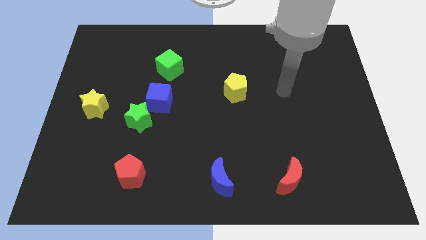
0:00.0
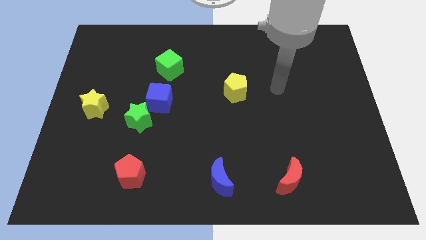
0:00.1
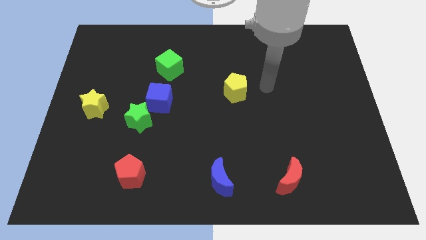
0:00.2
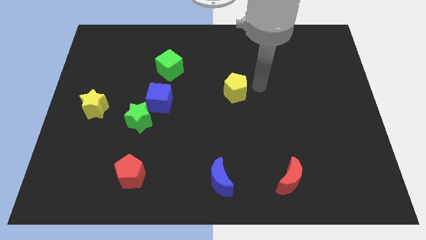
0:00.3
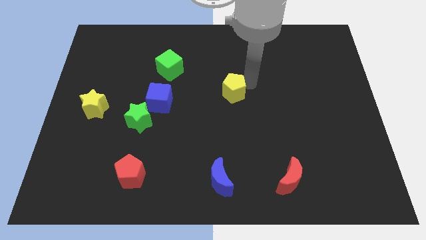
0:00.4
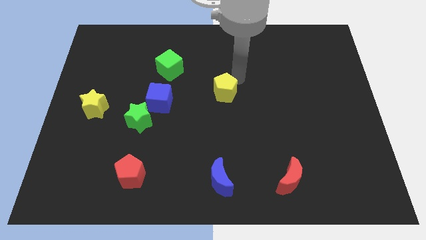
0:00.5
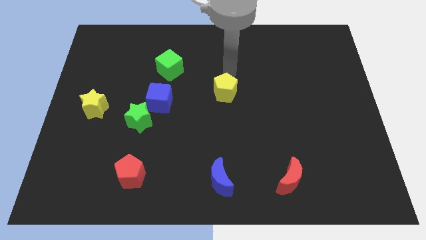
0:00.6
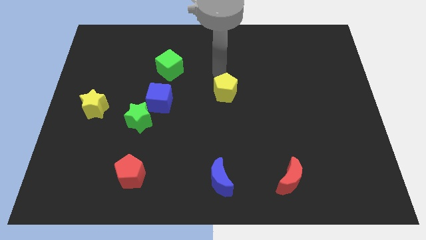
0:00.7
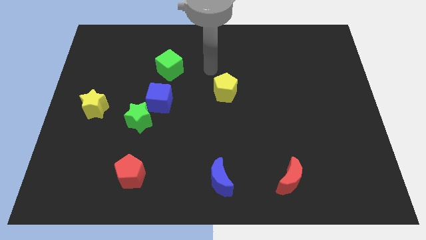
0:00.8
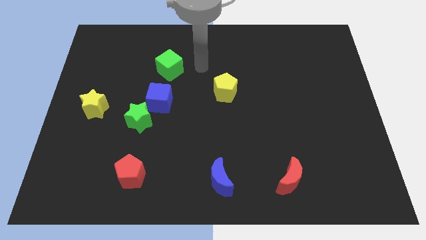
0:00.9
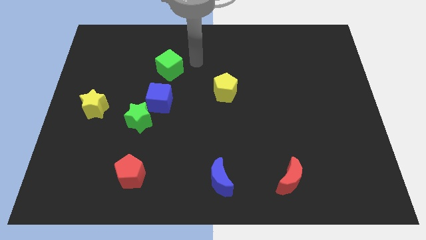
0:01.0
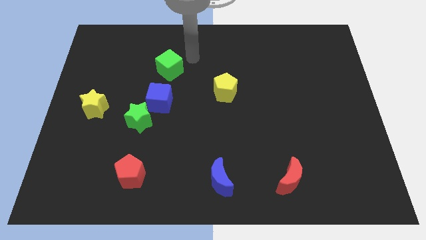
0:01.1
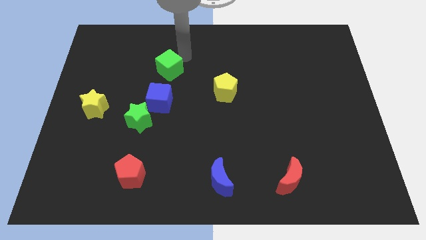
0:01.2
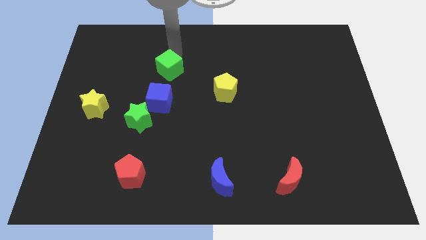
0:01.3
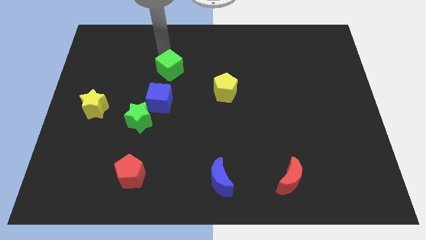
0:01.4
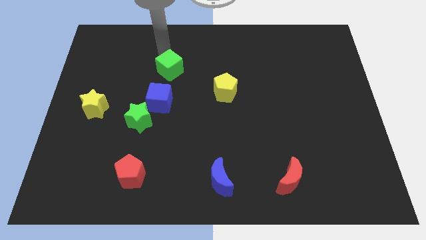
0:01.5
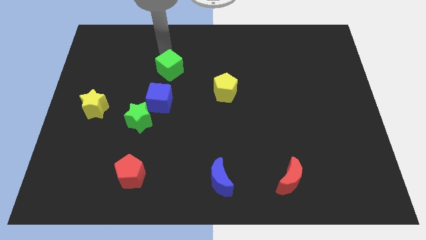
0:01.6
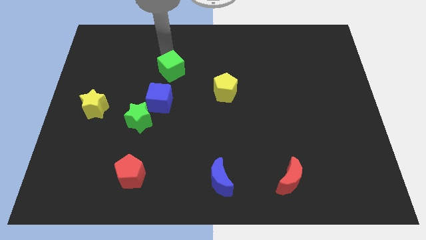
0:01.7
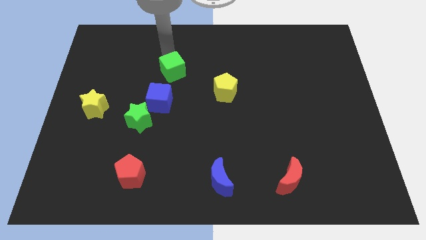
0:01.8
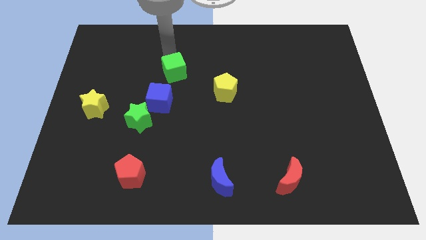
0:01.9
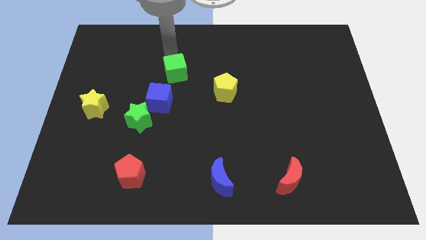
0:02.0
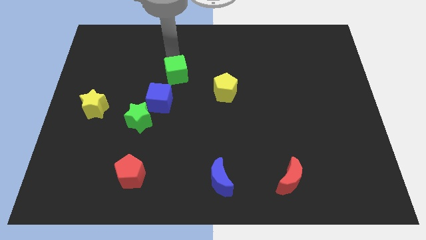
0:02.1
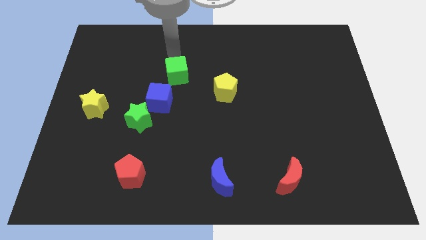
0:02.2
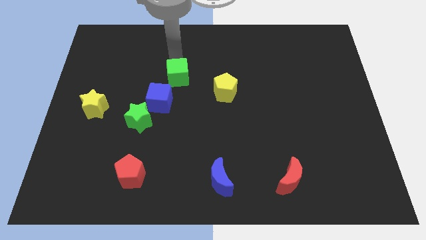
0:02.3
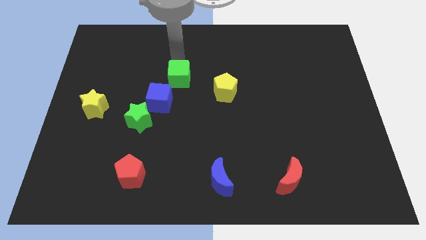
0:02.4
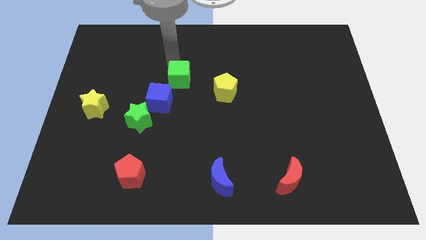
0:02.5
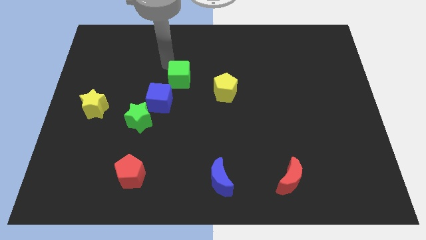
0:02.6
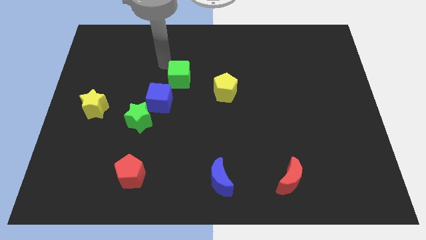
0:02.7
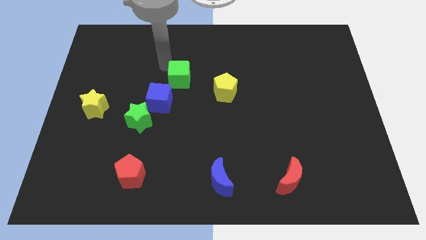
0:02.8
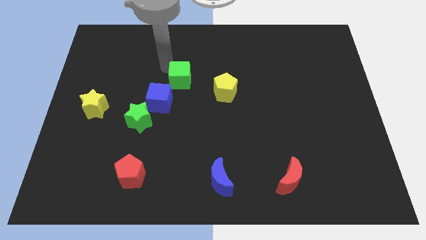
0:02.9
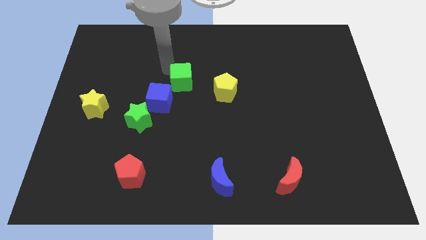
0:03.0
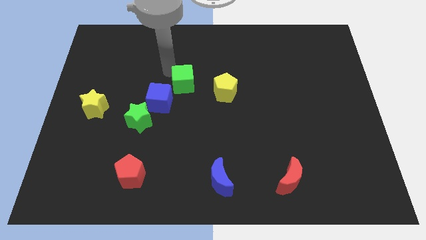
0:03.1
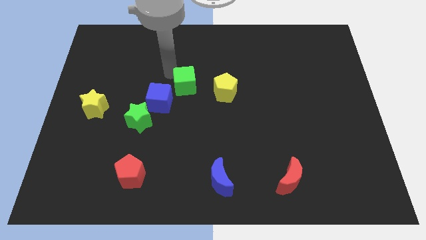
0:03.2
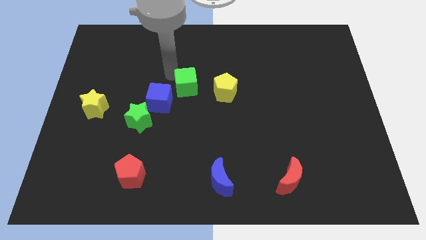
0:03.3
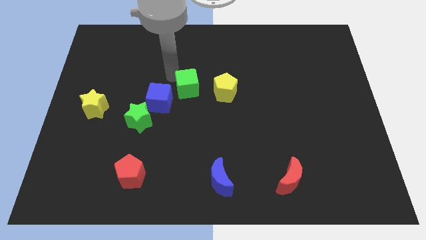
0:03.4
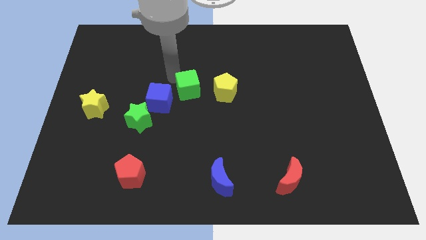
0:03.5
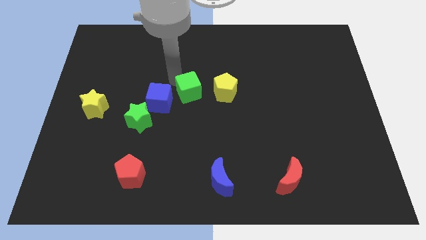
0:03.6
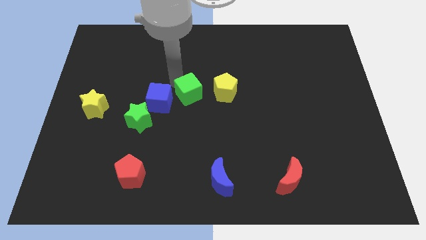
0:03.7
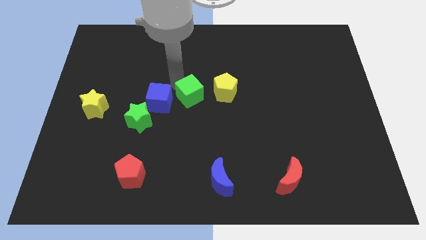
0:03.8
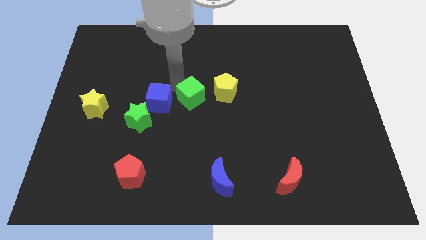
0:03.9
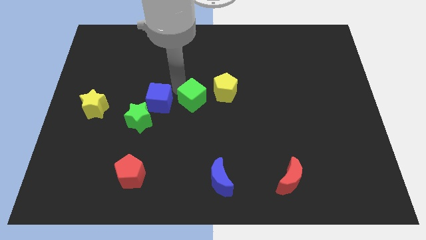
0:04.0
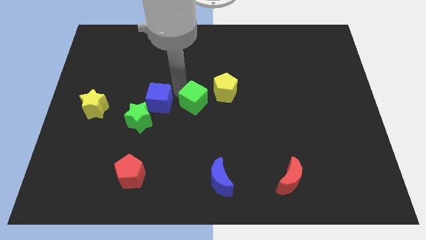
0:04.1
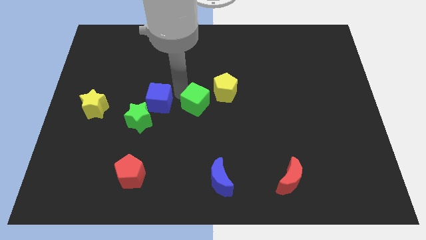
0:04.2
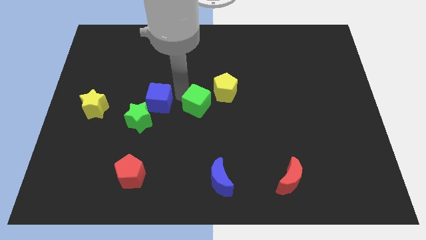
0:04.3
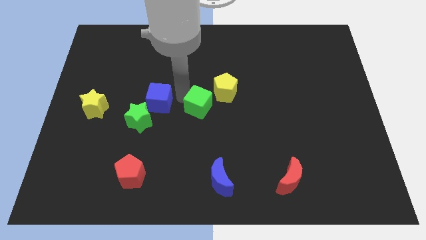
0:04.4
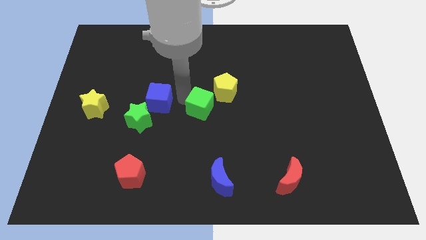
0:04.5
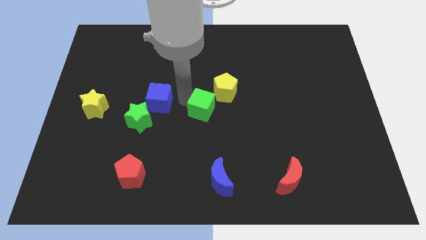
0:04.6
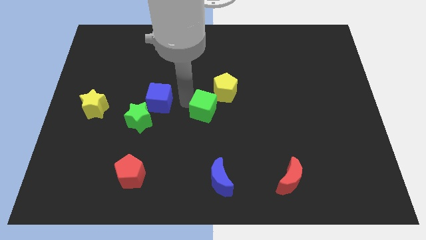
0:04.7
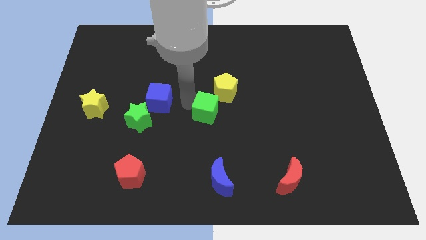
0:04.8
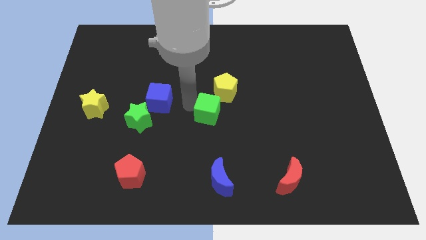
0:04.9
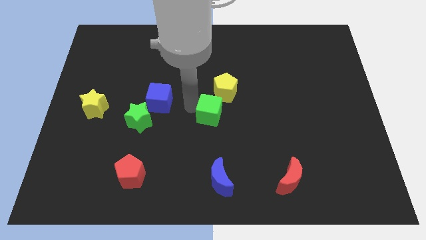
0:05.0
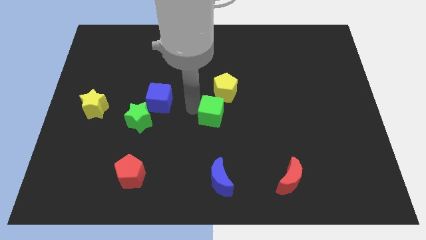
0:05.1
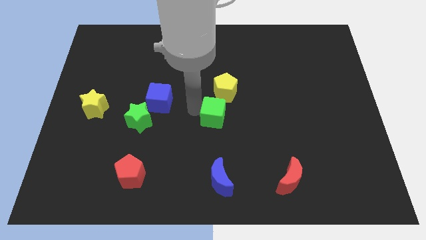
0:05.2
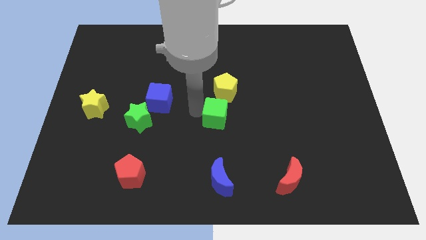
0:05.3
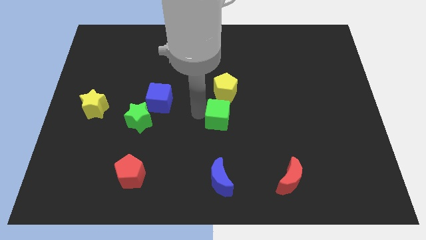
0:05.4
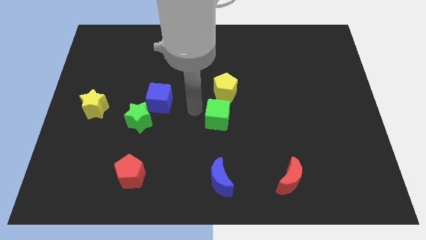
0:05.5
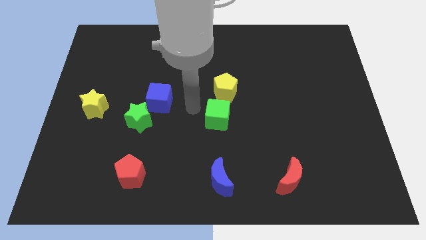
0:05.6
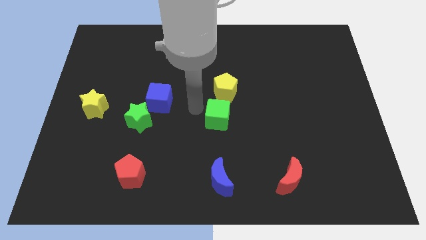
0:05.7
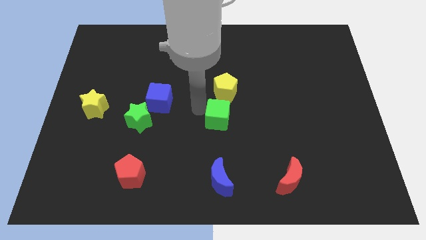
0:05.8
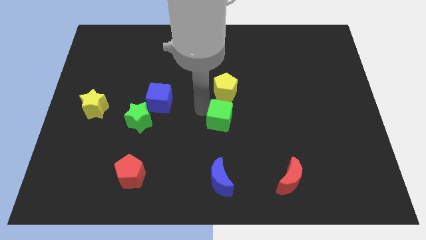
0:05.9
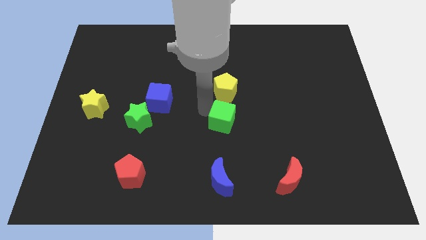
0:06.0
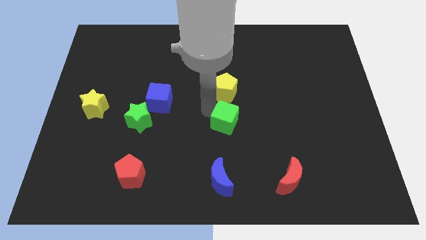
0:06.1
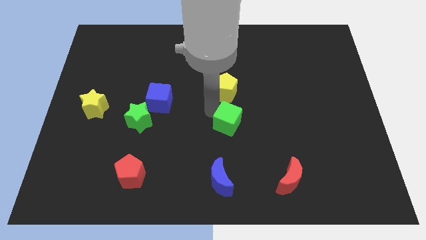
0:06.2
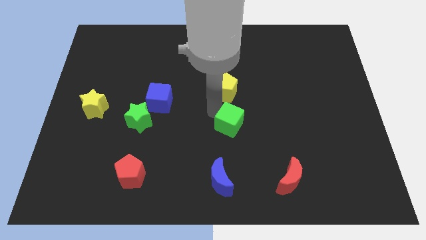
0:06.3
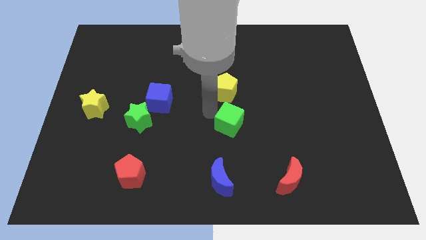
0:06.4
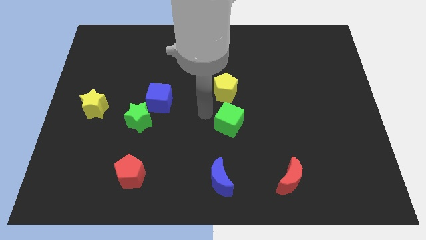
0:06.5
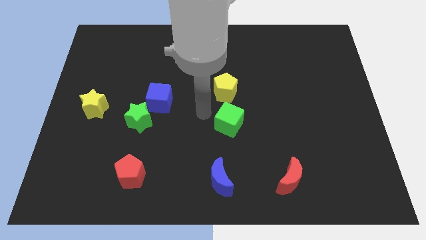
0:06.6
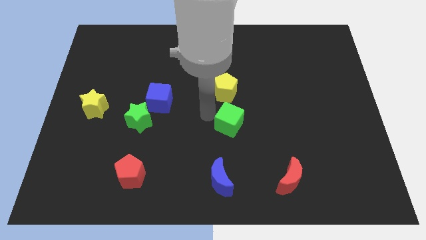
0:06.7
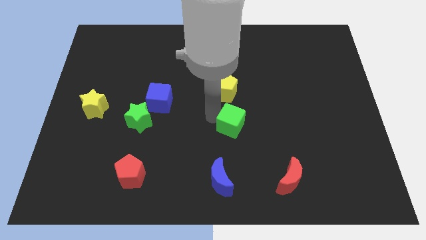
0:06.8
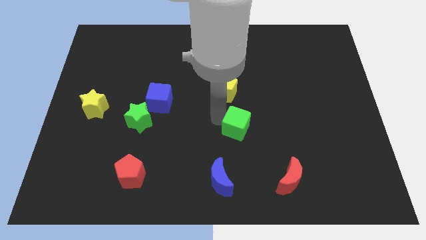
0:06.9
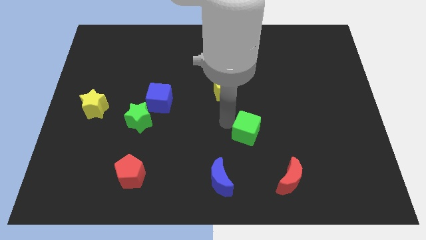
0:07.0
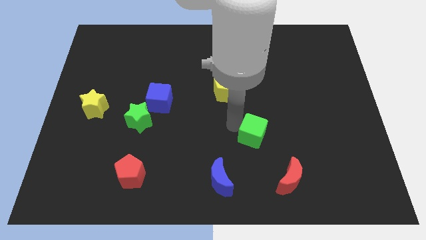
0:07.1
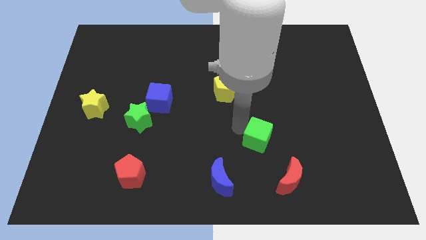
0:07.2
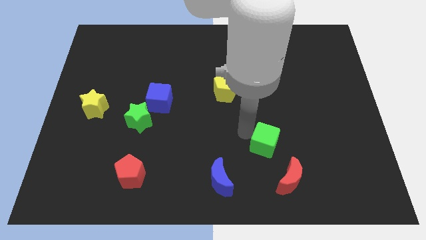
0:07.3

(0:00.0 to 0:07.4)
push the green cube to the top of the red moon
